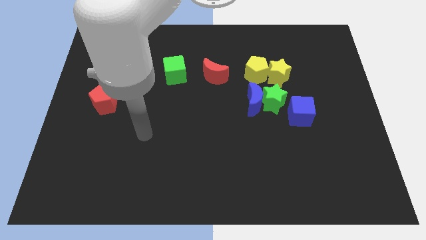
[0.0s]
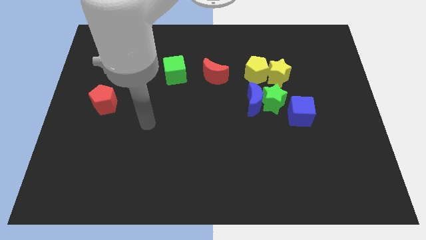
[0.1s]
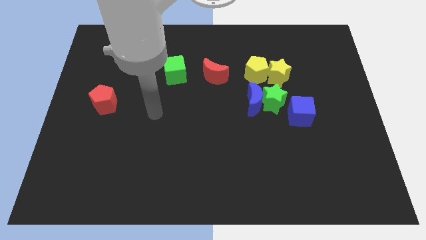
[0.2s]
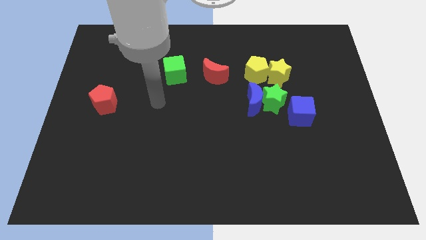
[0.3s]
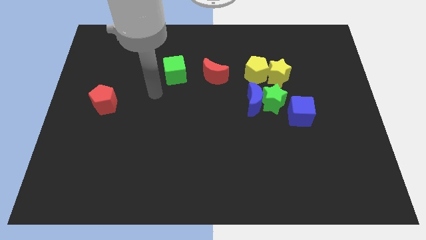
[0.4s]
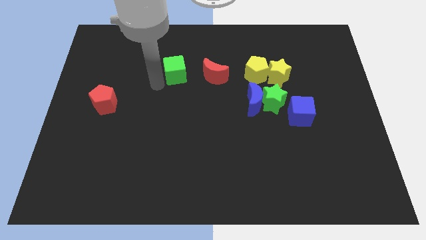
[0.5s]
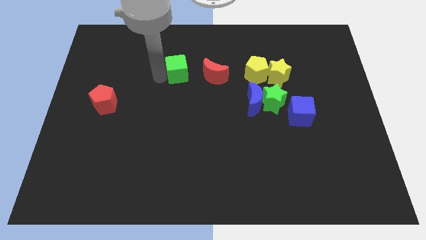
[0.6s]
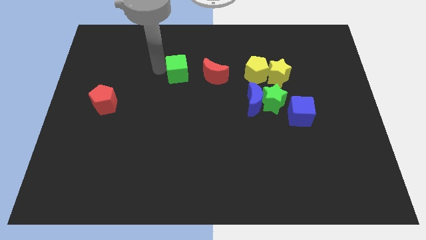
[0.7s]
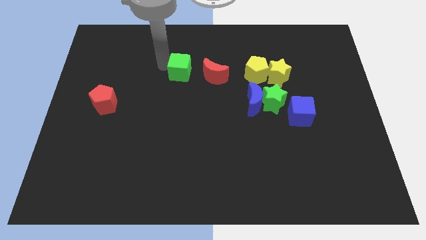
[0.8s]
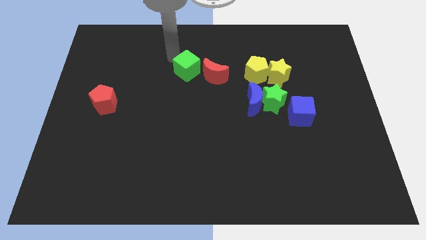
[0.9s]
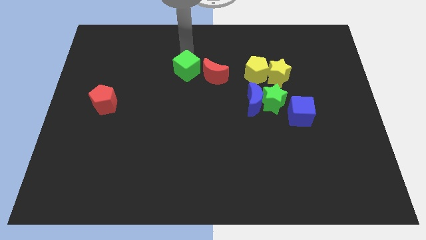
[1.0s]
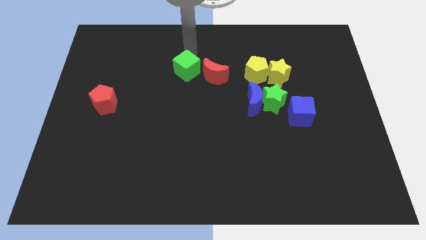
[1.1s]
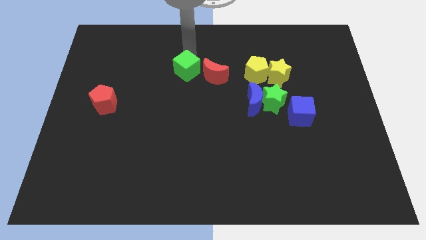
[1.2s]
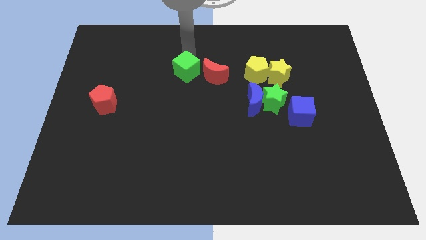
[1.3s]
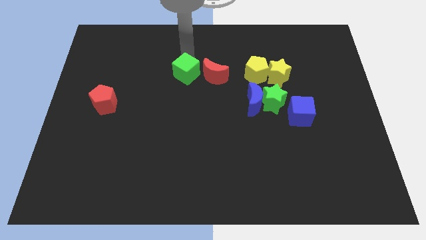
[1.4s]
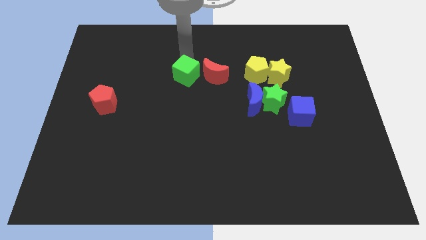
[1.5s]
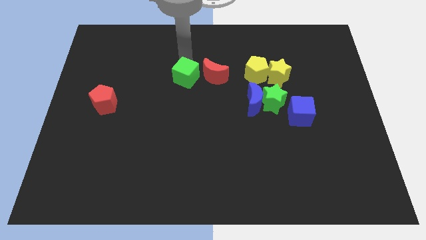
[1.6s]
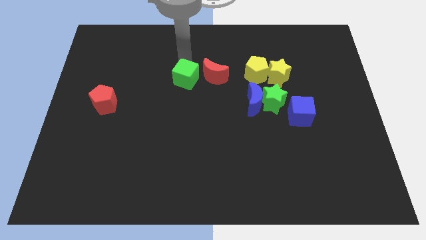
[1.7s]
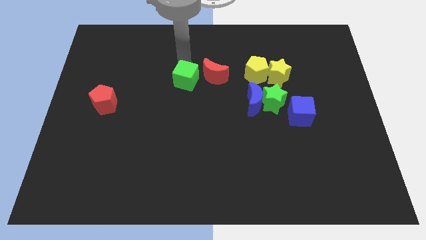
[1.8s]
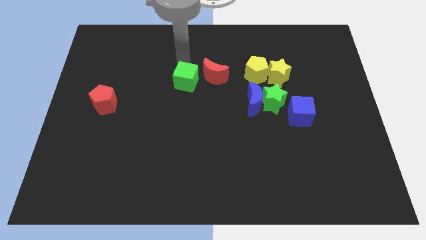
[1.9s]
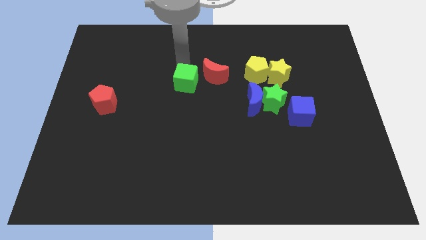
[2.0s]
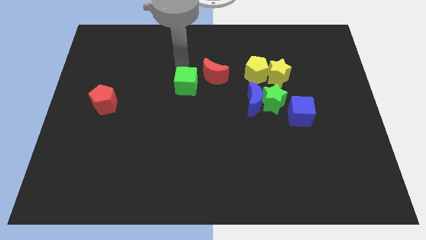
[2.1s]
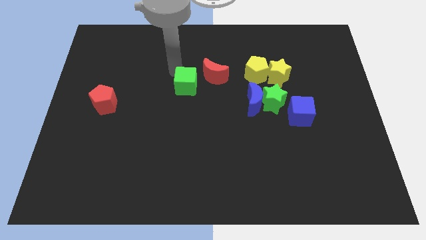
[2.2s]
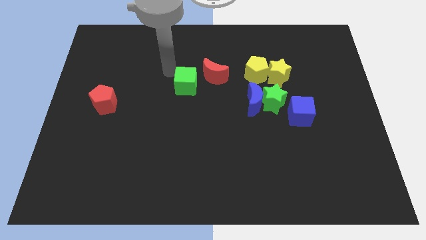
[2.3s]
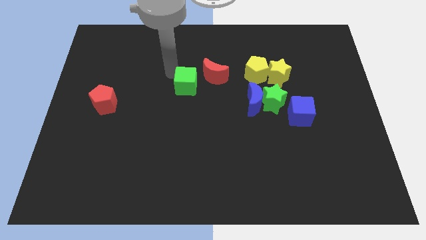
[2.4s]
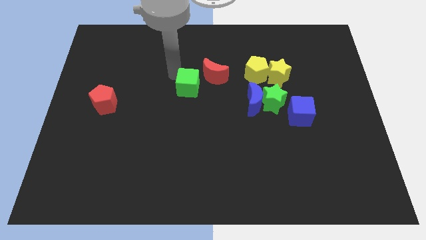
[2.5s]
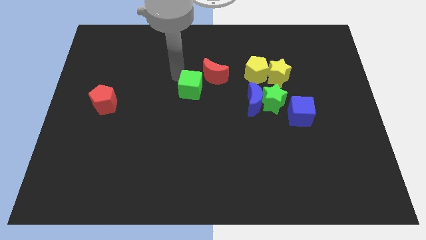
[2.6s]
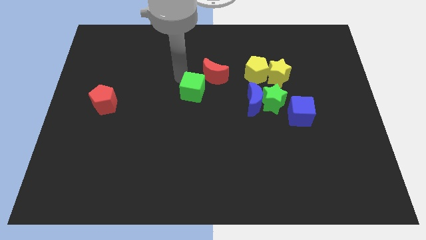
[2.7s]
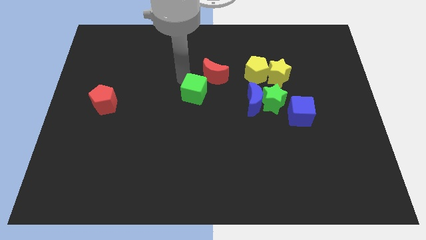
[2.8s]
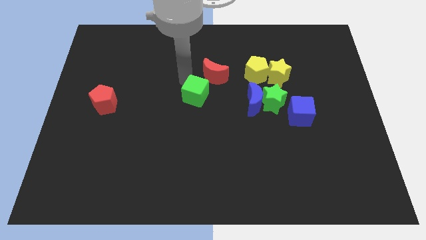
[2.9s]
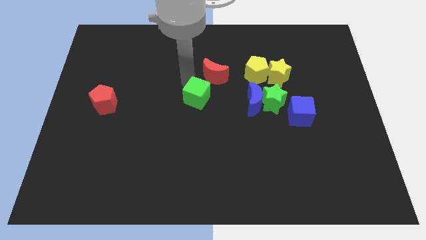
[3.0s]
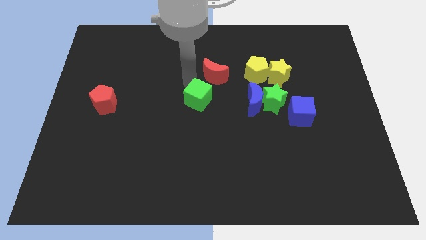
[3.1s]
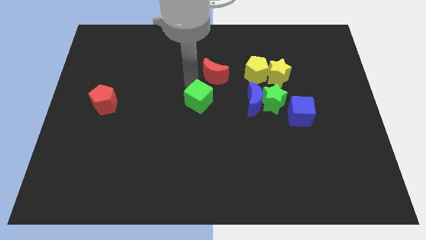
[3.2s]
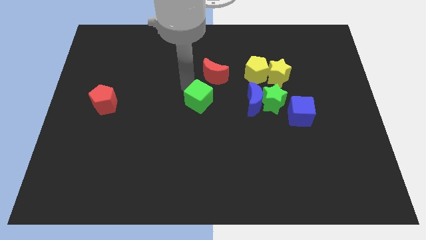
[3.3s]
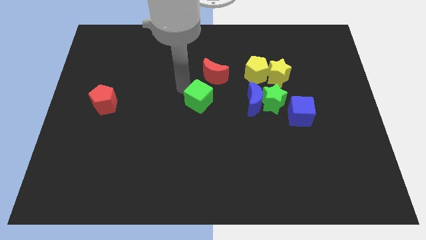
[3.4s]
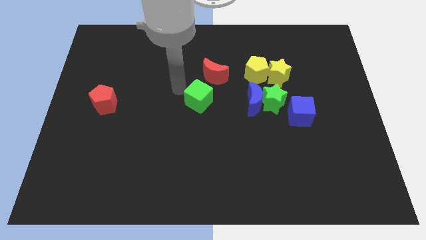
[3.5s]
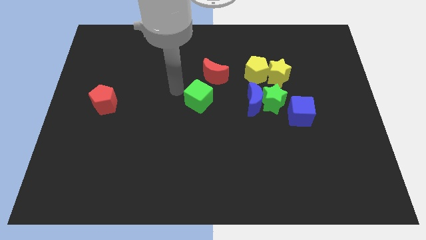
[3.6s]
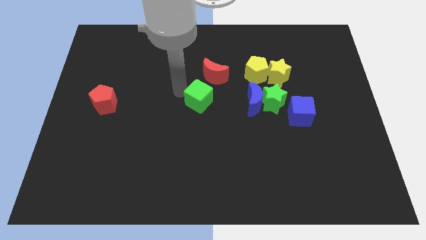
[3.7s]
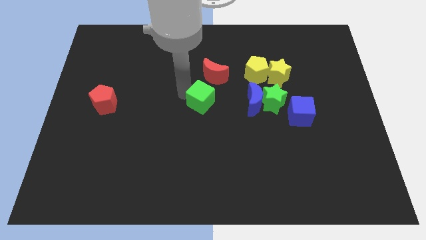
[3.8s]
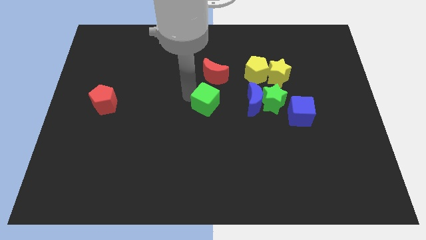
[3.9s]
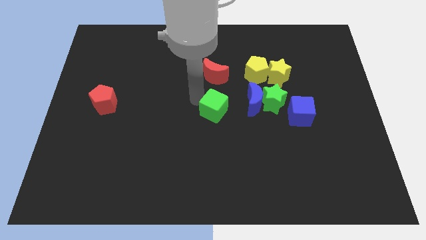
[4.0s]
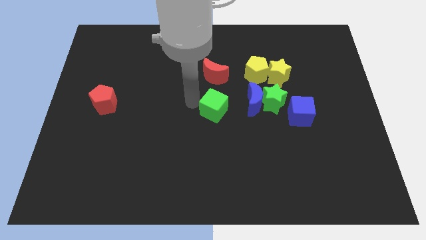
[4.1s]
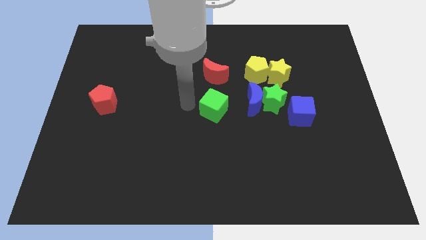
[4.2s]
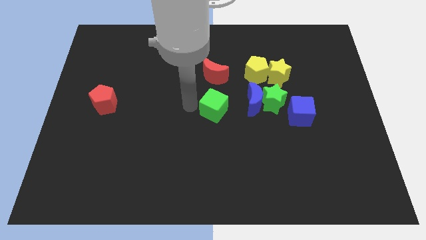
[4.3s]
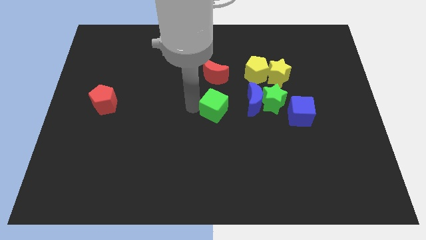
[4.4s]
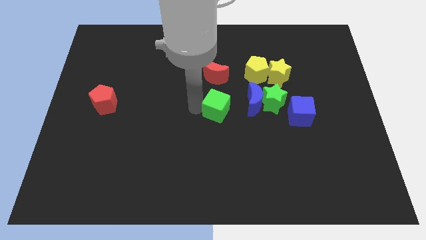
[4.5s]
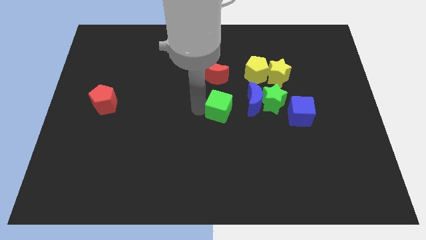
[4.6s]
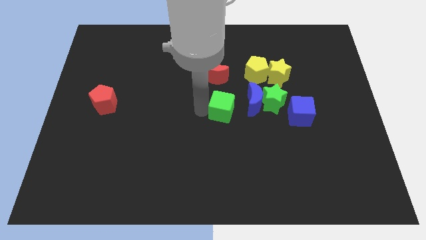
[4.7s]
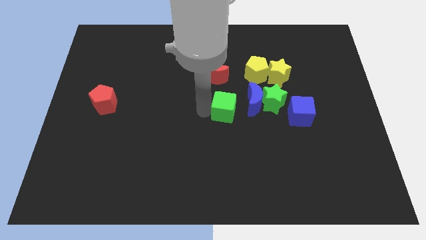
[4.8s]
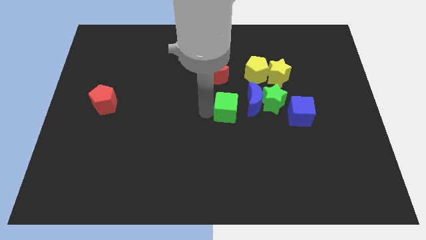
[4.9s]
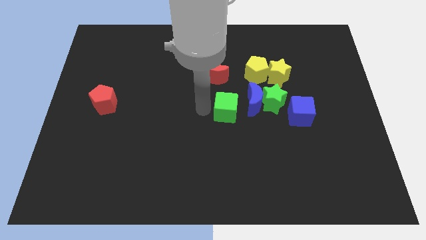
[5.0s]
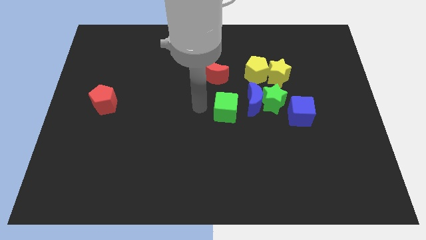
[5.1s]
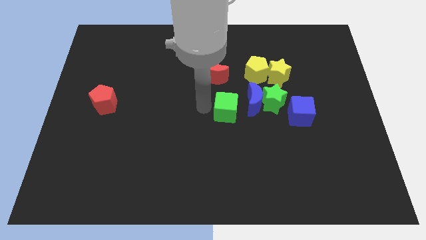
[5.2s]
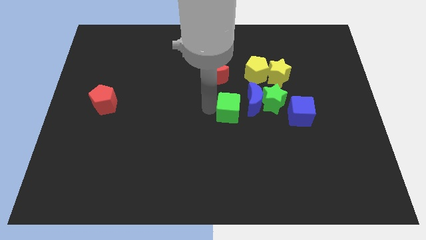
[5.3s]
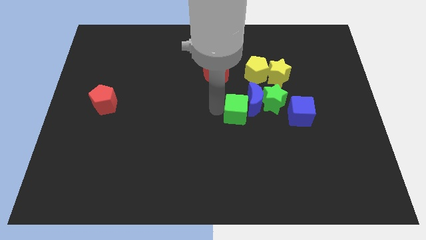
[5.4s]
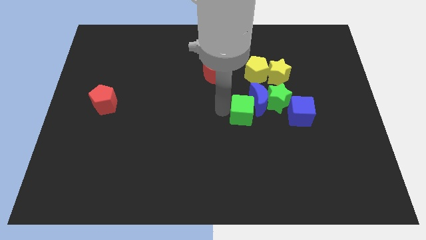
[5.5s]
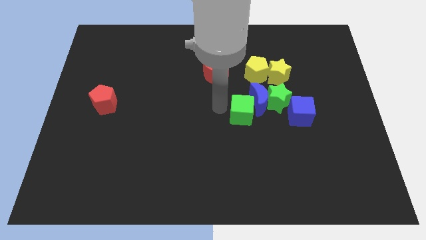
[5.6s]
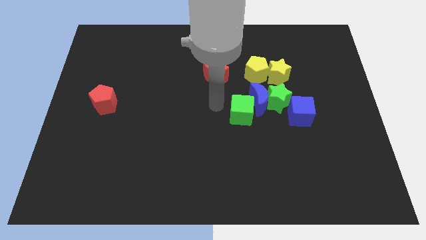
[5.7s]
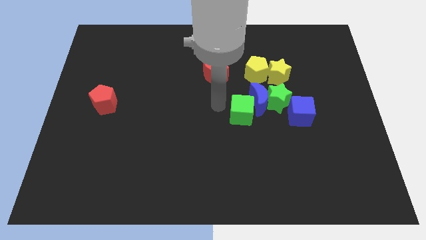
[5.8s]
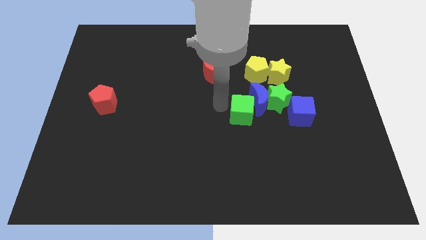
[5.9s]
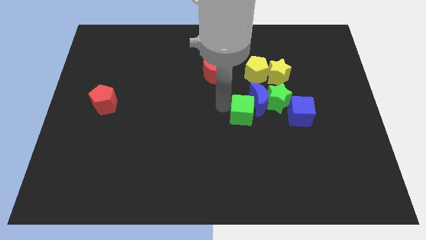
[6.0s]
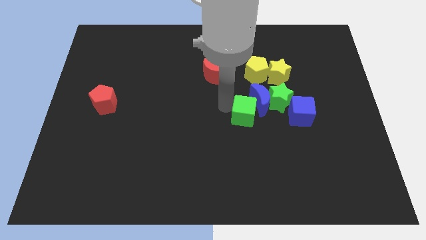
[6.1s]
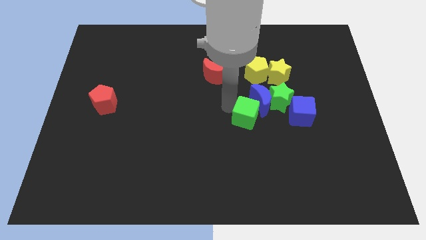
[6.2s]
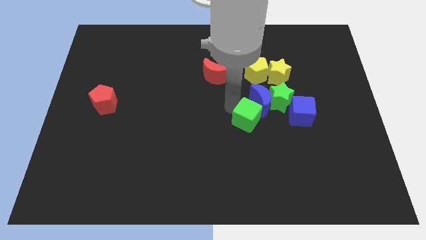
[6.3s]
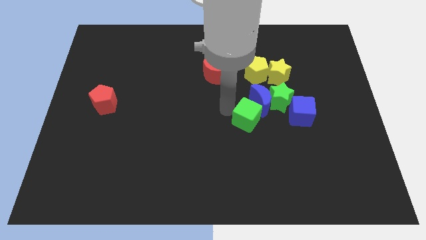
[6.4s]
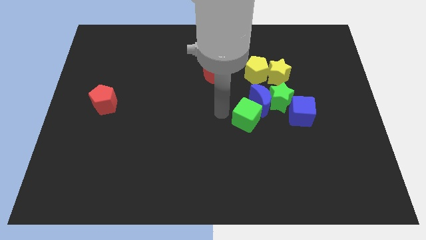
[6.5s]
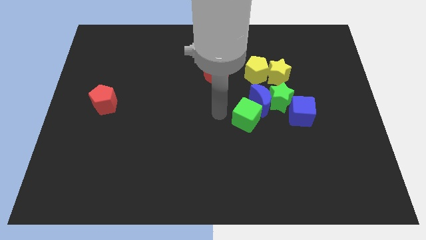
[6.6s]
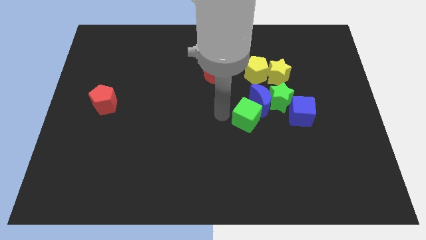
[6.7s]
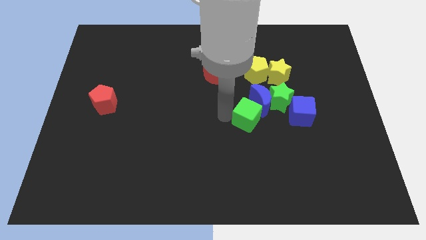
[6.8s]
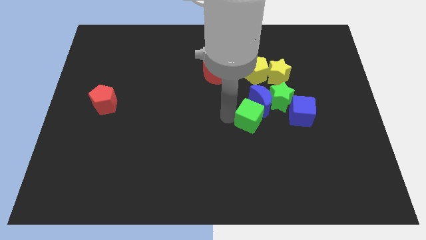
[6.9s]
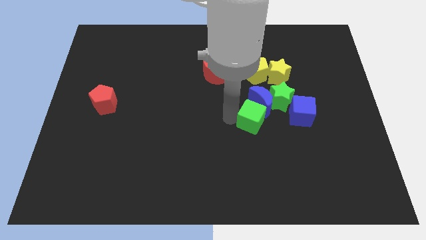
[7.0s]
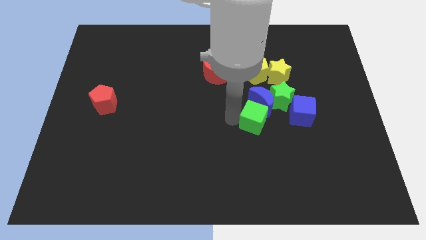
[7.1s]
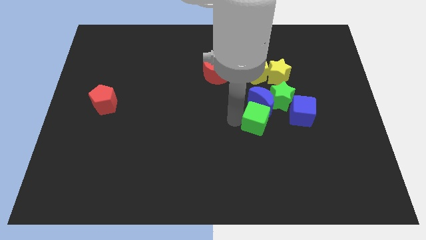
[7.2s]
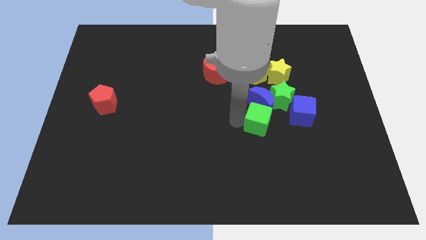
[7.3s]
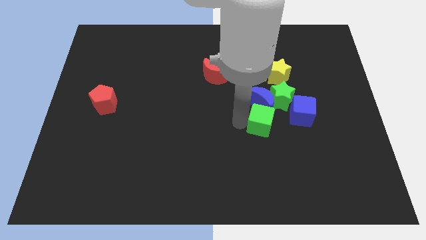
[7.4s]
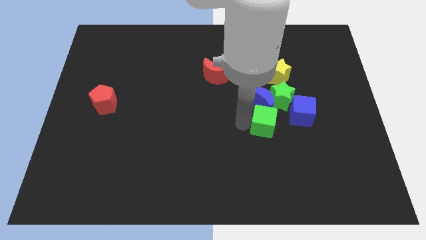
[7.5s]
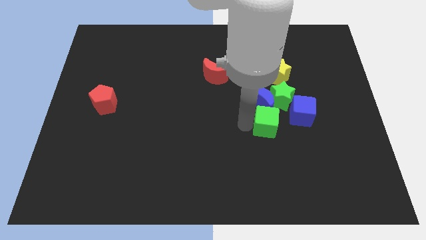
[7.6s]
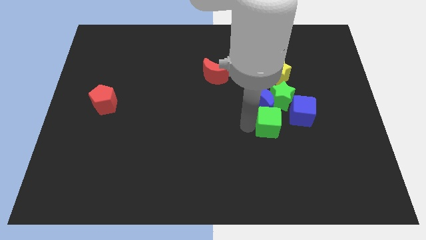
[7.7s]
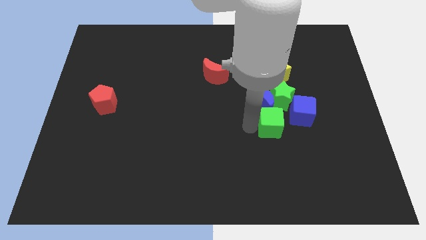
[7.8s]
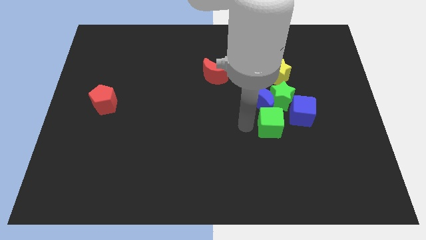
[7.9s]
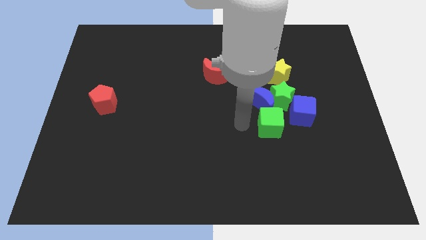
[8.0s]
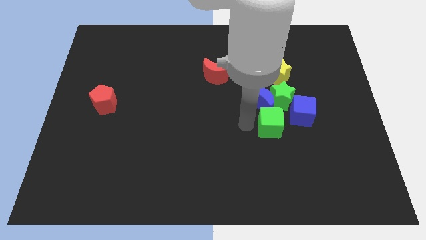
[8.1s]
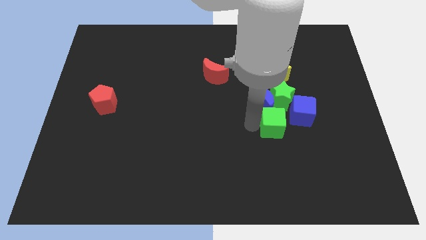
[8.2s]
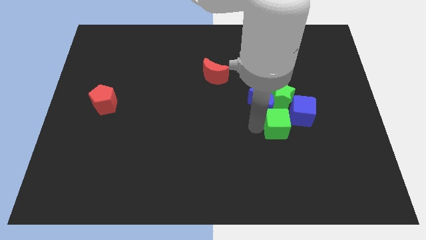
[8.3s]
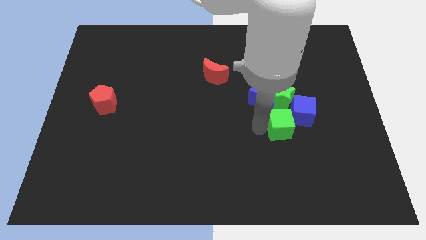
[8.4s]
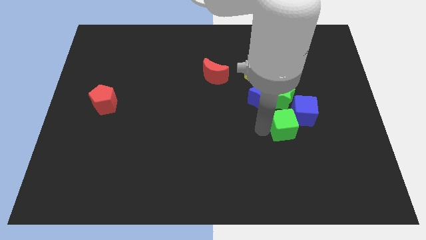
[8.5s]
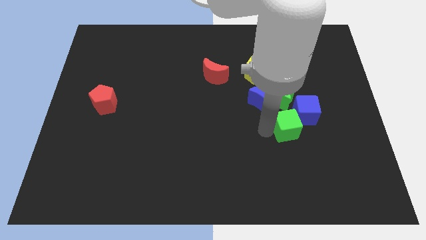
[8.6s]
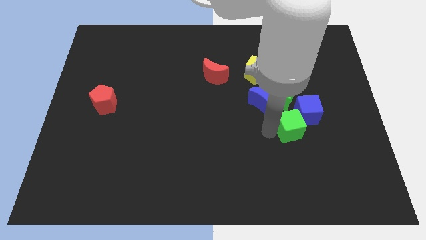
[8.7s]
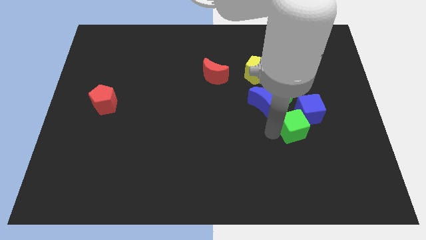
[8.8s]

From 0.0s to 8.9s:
put the green cube to the bottom right of the green star

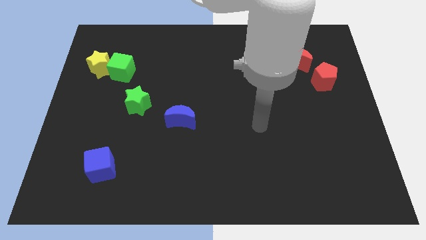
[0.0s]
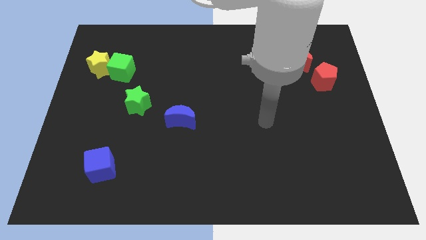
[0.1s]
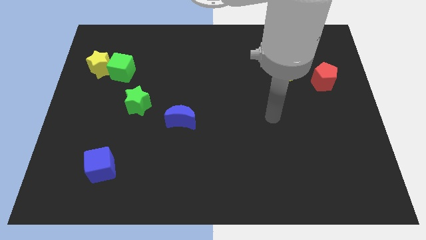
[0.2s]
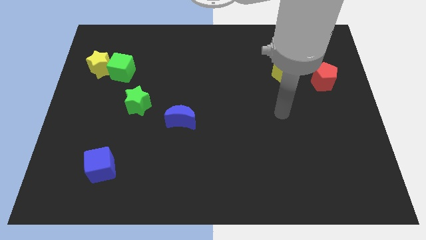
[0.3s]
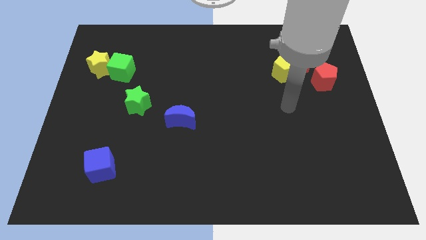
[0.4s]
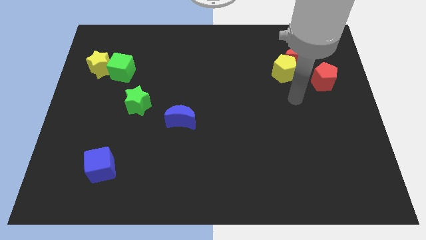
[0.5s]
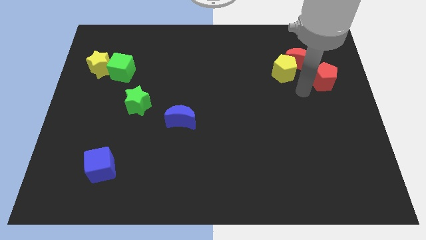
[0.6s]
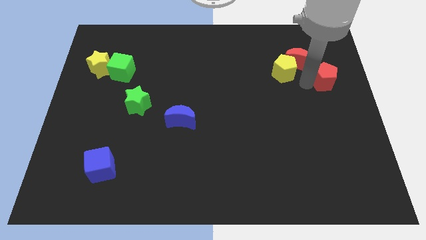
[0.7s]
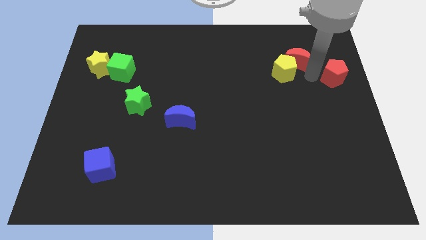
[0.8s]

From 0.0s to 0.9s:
slide the red moon to the left of the red pentagon
